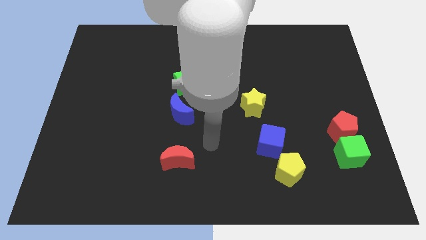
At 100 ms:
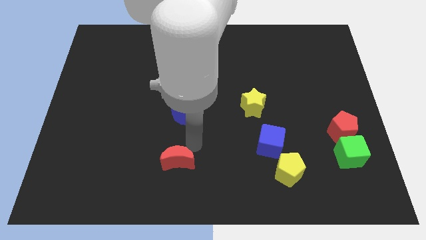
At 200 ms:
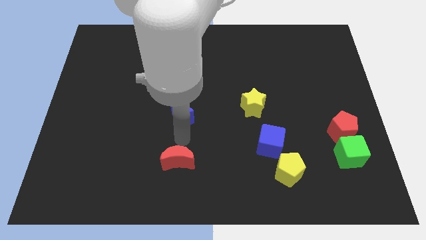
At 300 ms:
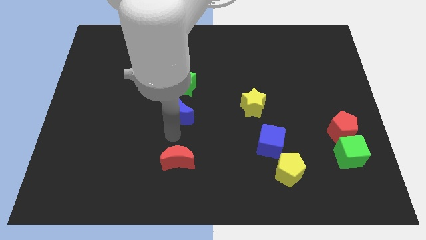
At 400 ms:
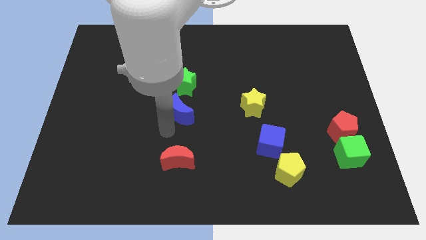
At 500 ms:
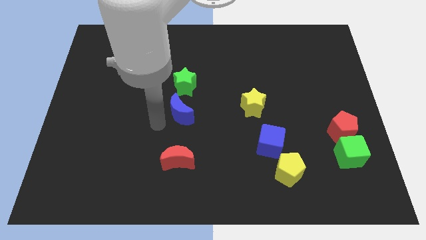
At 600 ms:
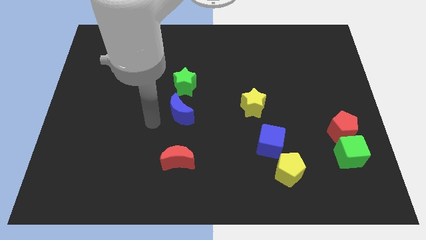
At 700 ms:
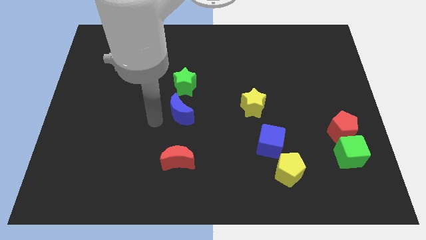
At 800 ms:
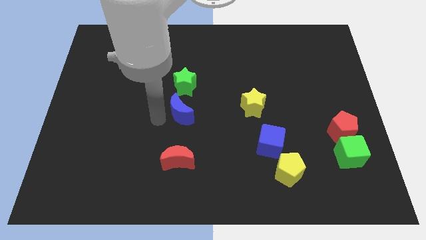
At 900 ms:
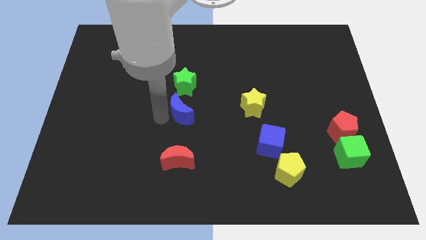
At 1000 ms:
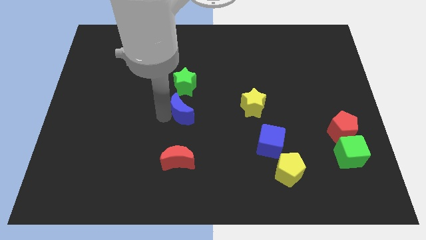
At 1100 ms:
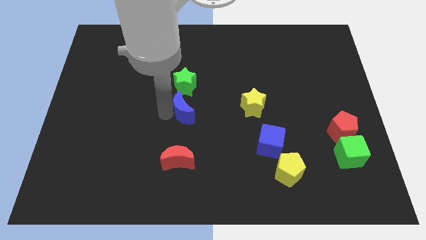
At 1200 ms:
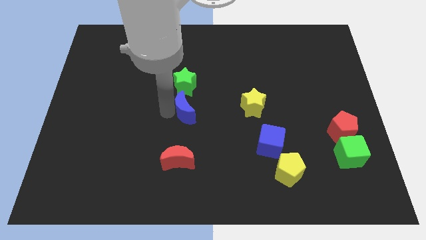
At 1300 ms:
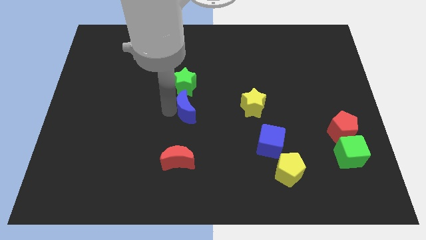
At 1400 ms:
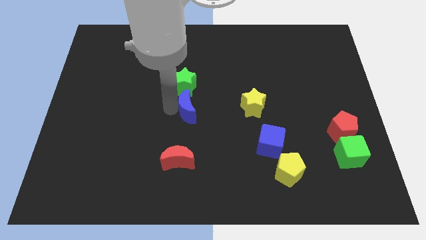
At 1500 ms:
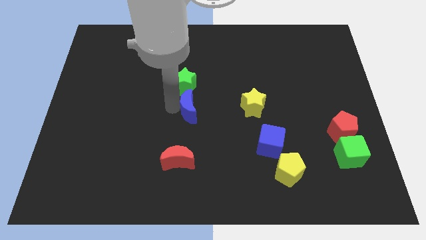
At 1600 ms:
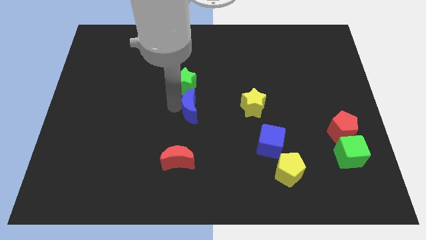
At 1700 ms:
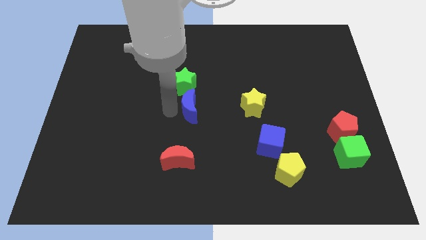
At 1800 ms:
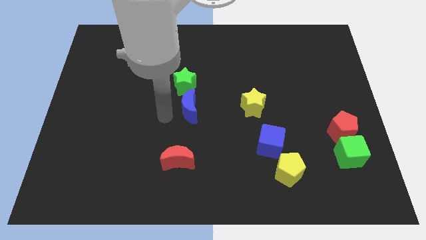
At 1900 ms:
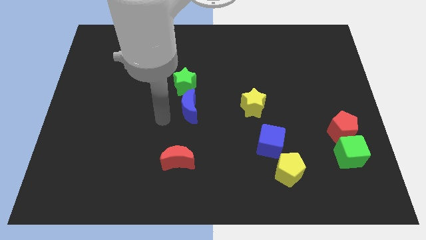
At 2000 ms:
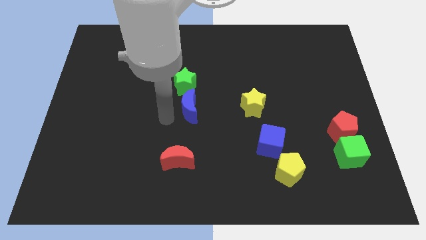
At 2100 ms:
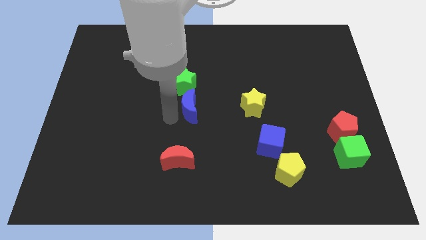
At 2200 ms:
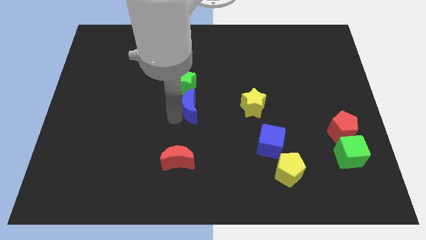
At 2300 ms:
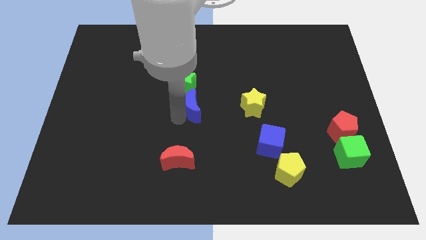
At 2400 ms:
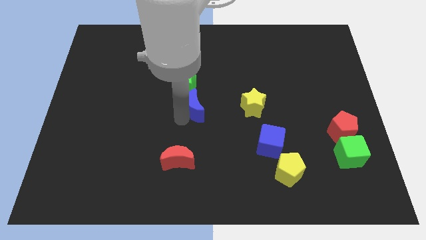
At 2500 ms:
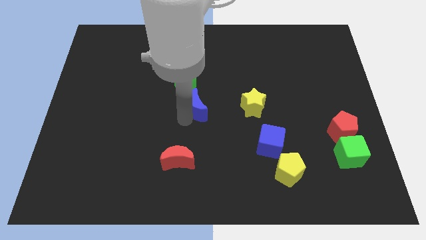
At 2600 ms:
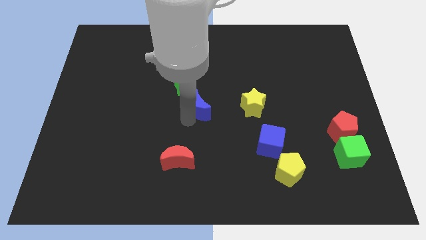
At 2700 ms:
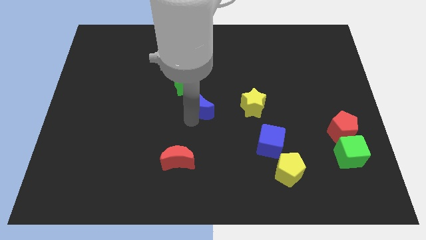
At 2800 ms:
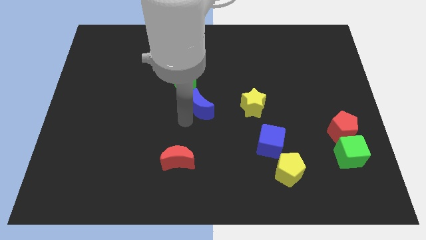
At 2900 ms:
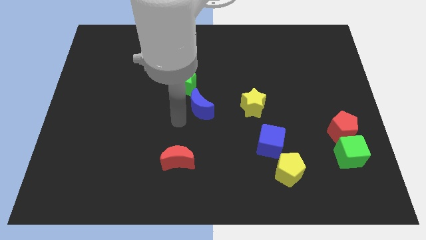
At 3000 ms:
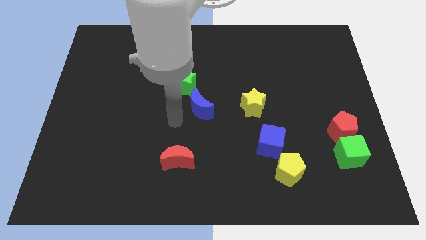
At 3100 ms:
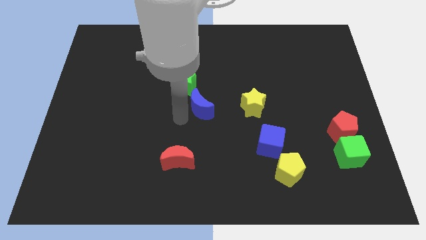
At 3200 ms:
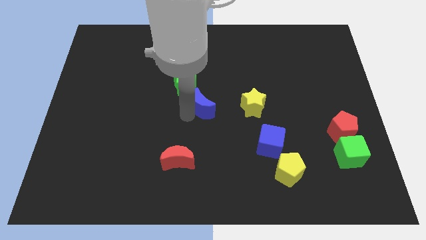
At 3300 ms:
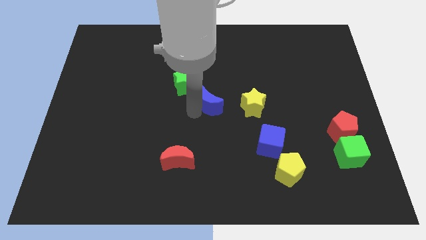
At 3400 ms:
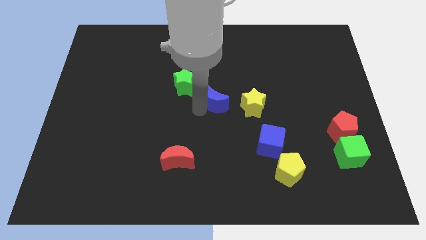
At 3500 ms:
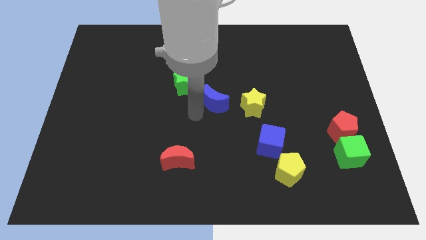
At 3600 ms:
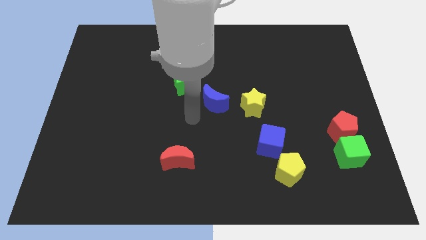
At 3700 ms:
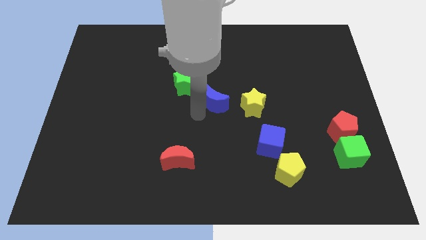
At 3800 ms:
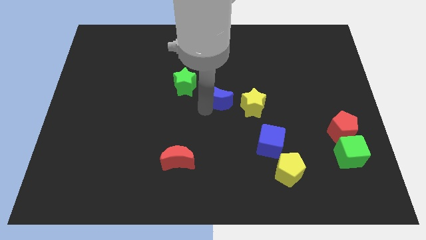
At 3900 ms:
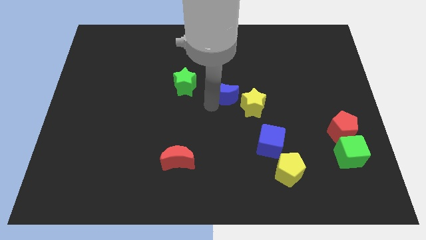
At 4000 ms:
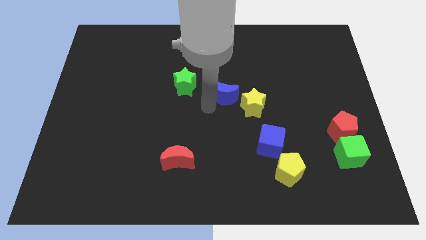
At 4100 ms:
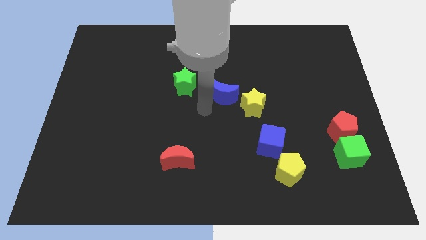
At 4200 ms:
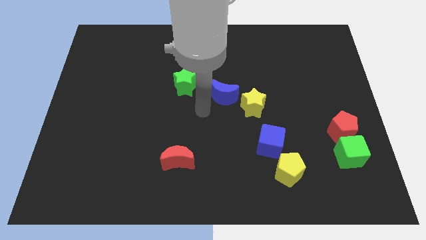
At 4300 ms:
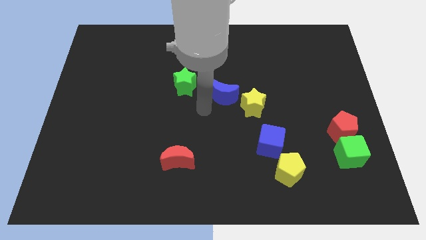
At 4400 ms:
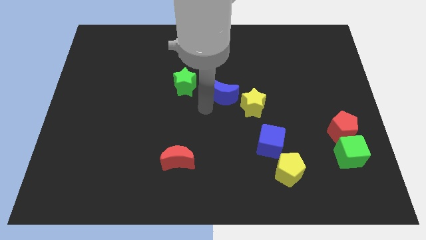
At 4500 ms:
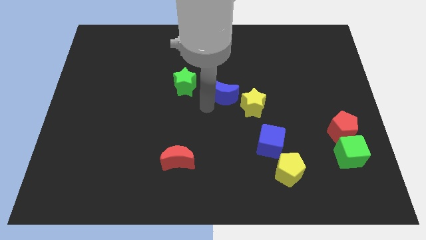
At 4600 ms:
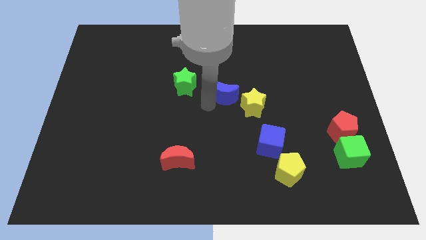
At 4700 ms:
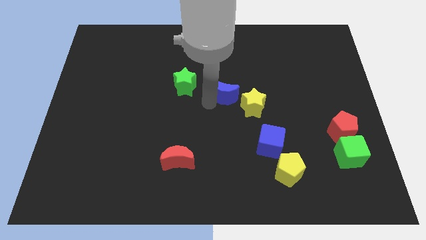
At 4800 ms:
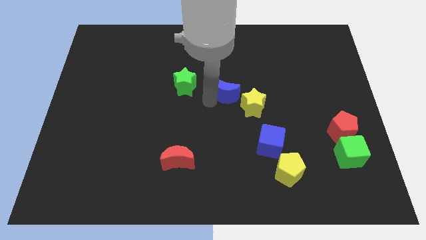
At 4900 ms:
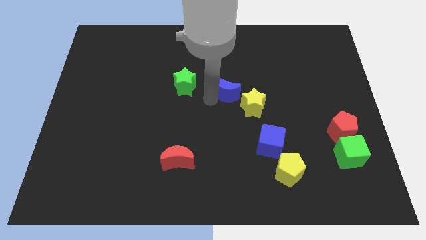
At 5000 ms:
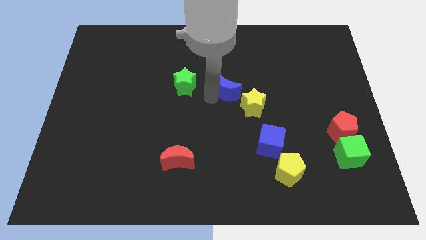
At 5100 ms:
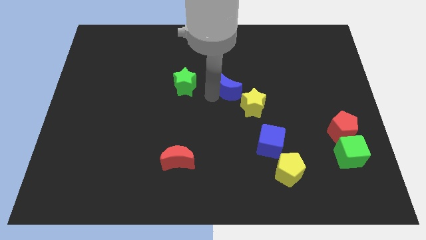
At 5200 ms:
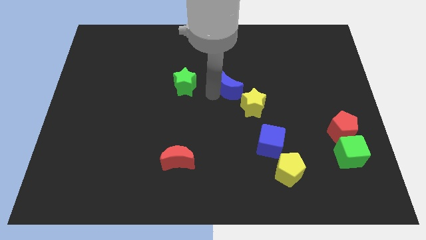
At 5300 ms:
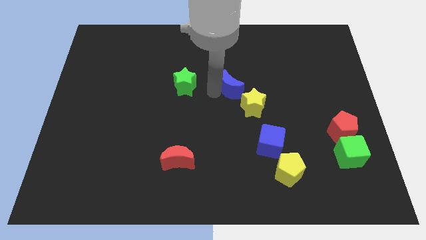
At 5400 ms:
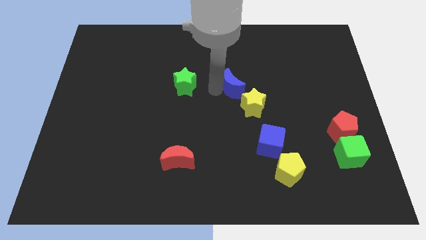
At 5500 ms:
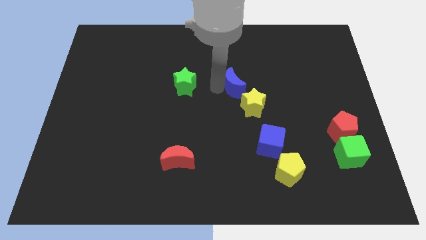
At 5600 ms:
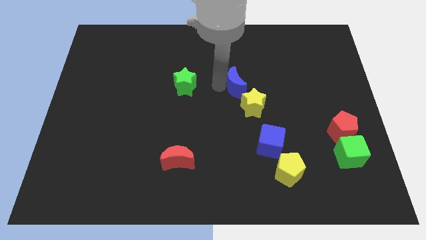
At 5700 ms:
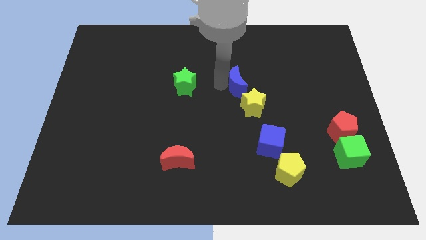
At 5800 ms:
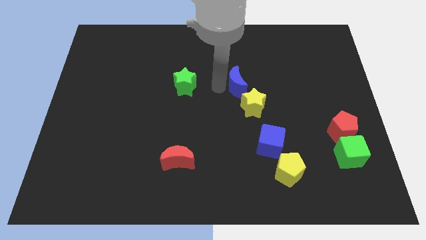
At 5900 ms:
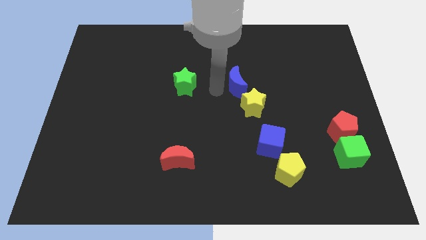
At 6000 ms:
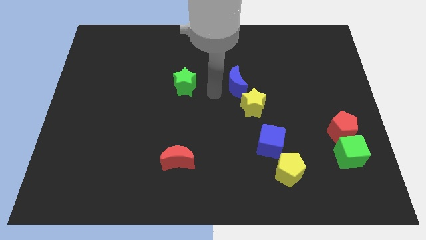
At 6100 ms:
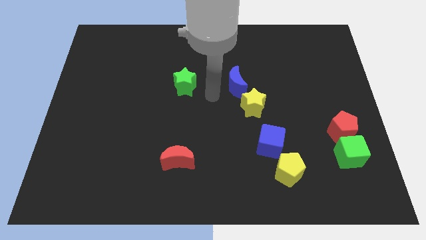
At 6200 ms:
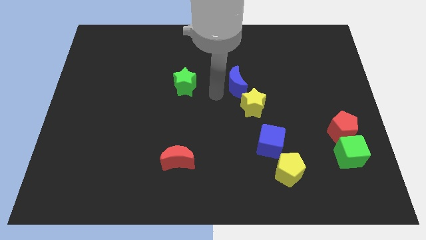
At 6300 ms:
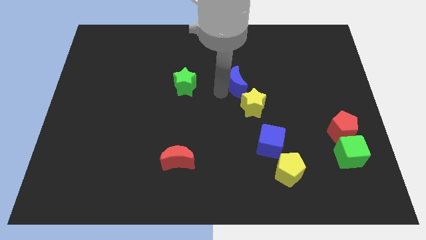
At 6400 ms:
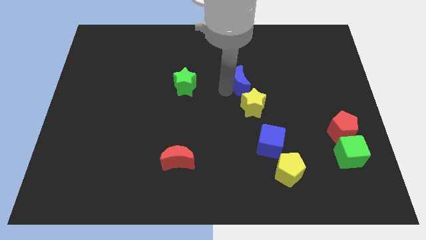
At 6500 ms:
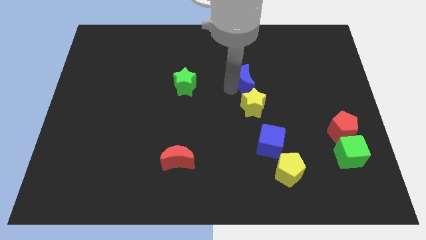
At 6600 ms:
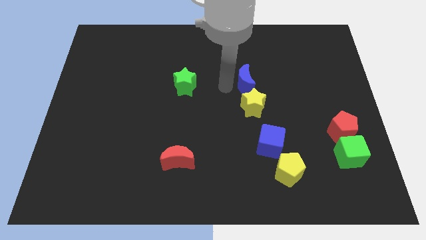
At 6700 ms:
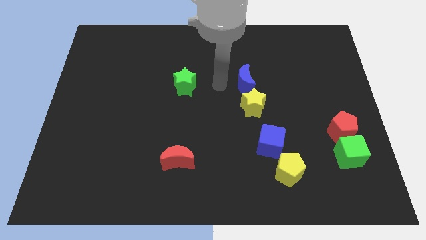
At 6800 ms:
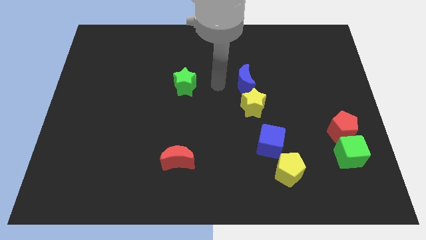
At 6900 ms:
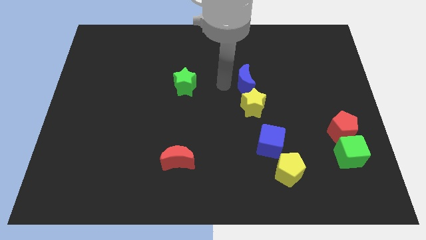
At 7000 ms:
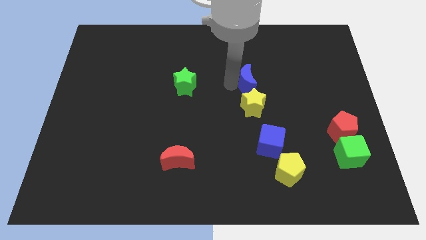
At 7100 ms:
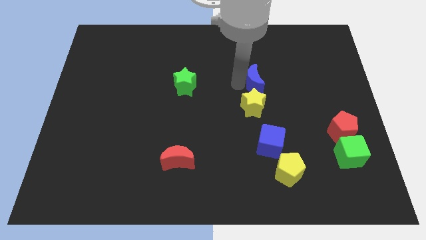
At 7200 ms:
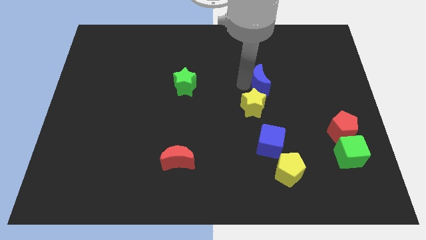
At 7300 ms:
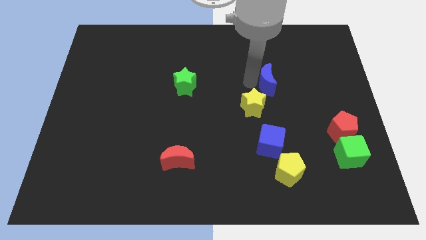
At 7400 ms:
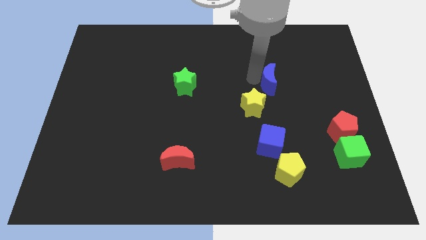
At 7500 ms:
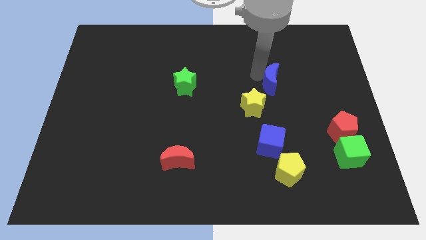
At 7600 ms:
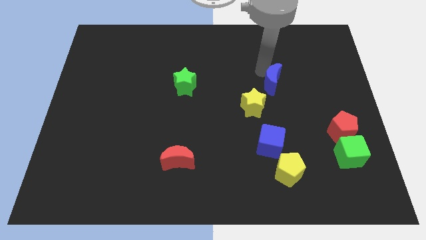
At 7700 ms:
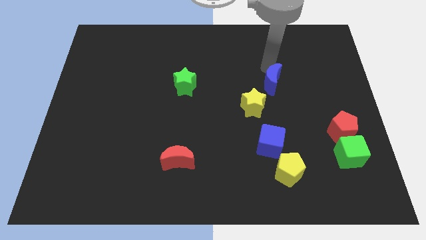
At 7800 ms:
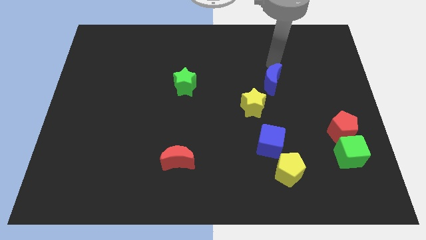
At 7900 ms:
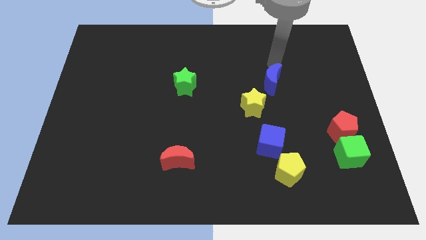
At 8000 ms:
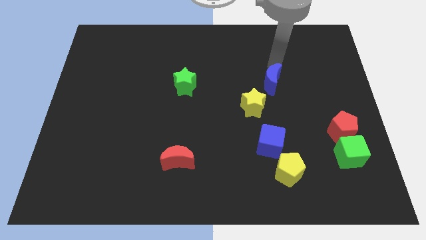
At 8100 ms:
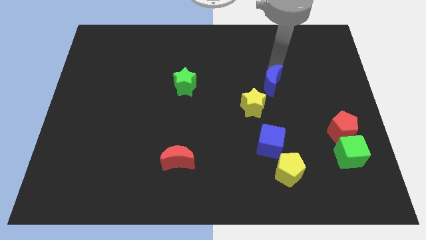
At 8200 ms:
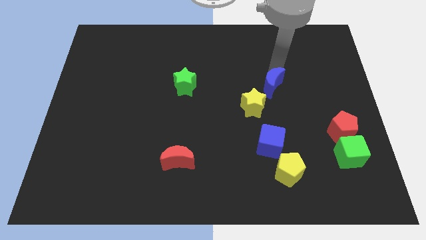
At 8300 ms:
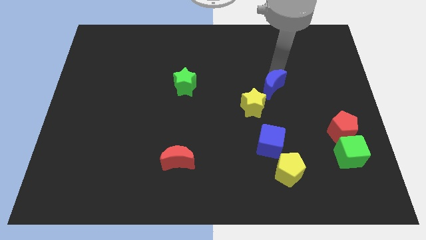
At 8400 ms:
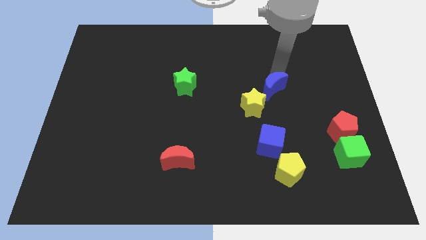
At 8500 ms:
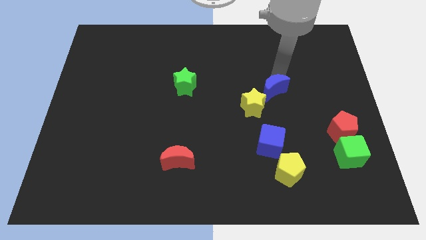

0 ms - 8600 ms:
move the blue moon above the blue cube
